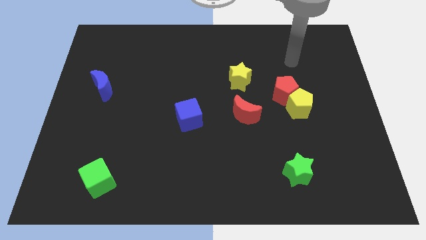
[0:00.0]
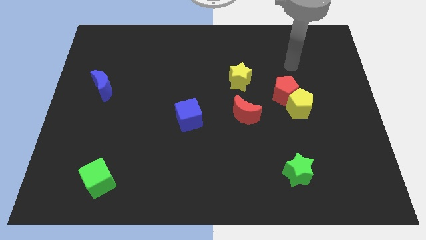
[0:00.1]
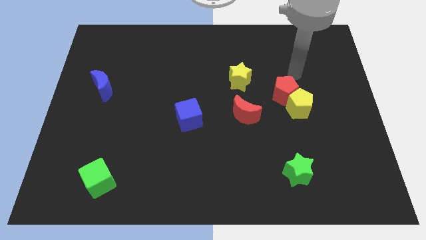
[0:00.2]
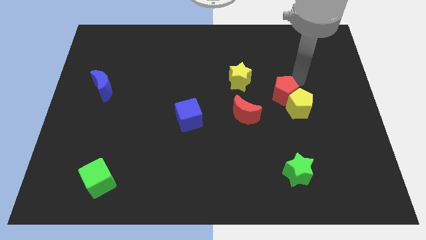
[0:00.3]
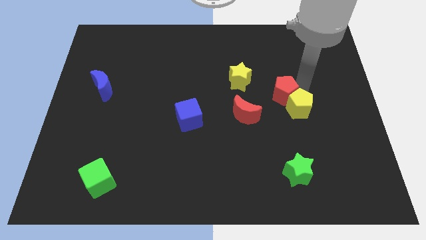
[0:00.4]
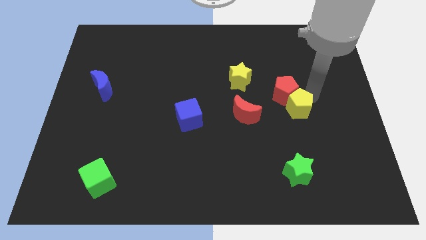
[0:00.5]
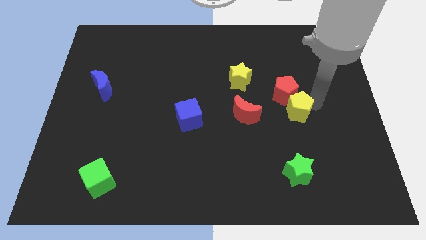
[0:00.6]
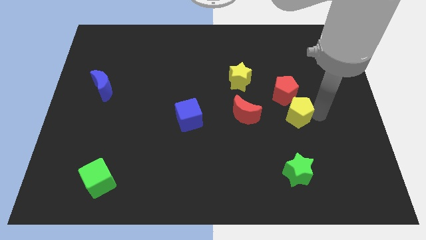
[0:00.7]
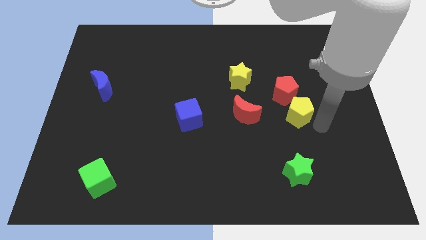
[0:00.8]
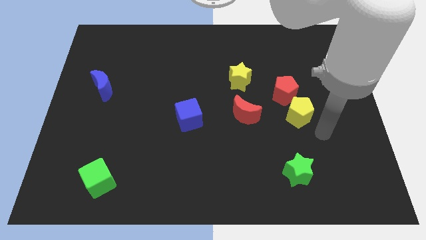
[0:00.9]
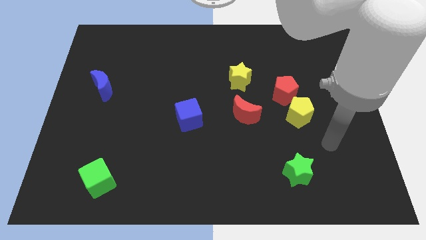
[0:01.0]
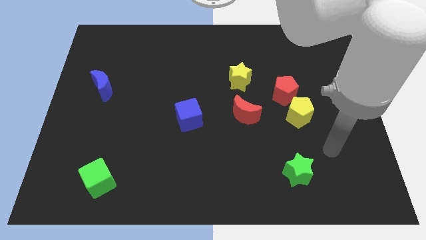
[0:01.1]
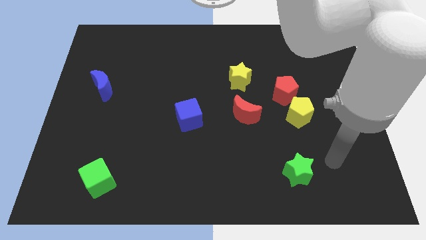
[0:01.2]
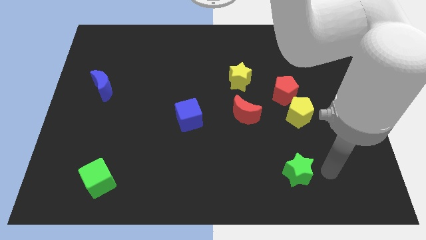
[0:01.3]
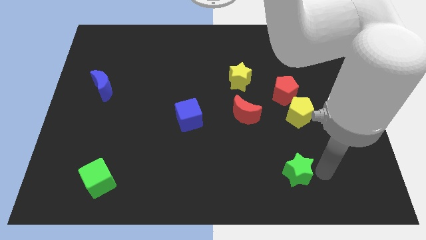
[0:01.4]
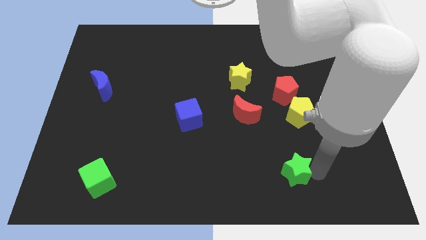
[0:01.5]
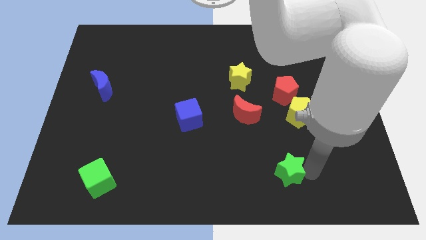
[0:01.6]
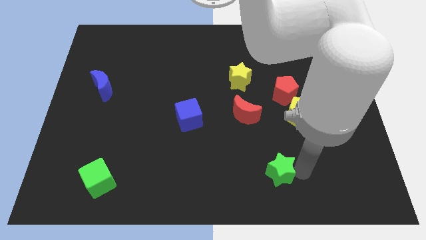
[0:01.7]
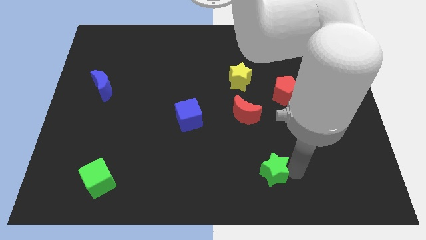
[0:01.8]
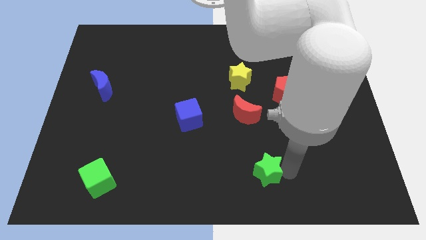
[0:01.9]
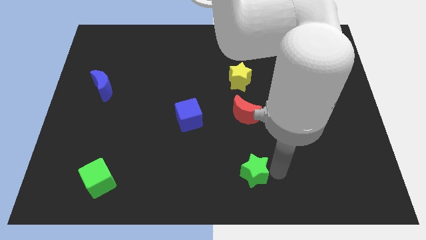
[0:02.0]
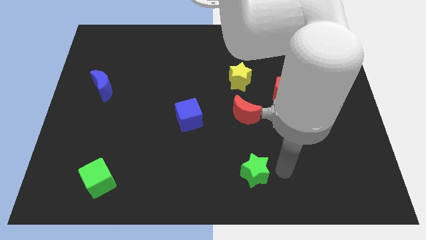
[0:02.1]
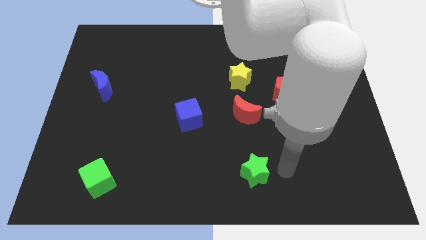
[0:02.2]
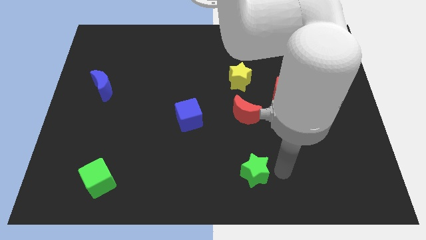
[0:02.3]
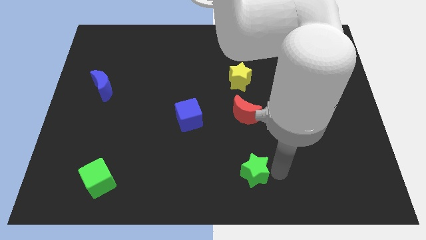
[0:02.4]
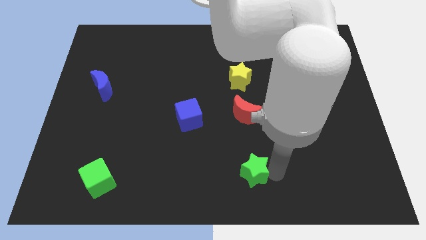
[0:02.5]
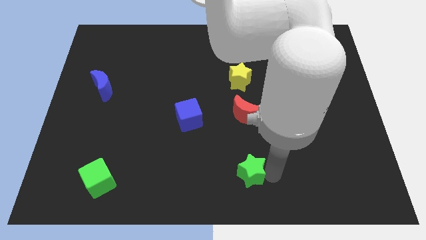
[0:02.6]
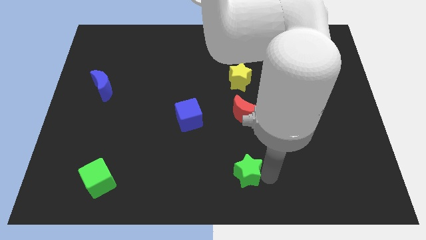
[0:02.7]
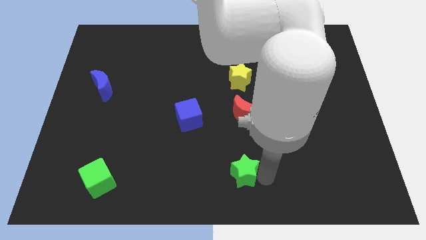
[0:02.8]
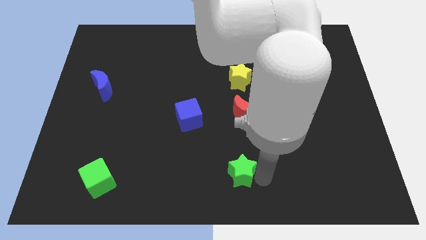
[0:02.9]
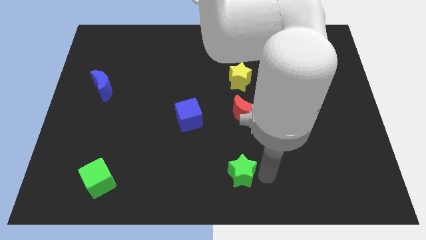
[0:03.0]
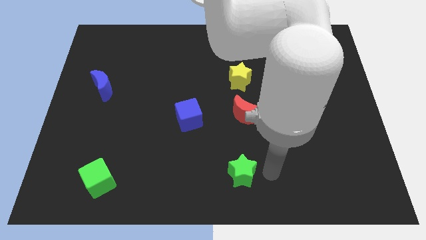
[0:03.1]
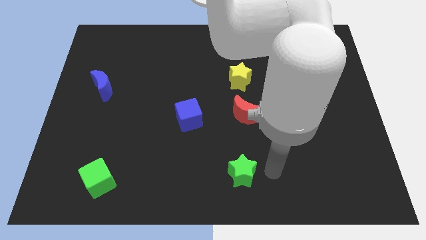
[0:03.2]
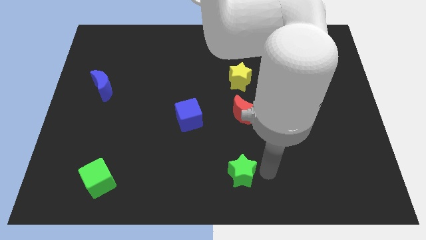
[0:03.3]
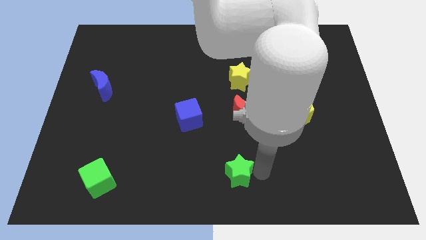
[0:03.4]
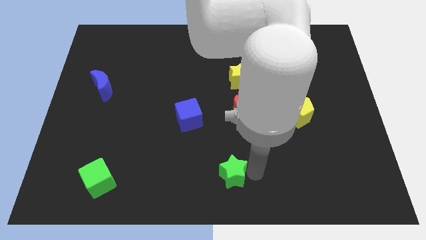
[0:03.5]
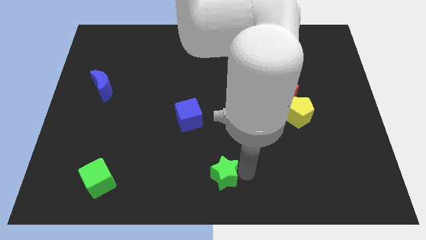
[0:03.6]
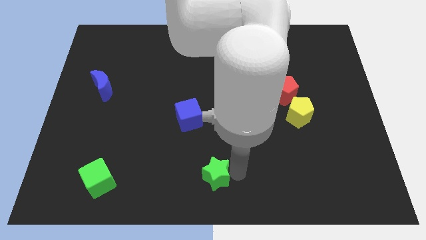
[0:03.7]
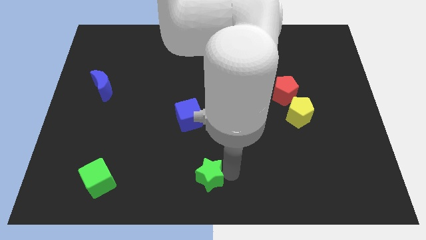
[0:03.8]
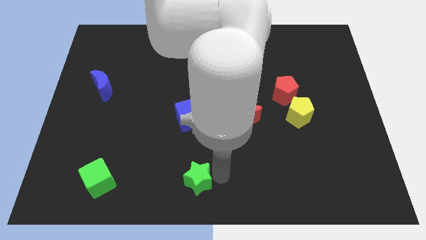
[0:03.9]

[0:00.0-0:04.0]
push the green star left

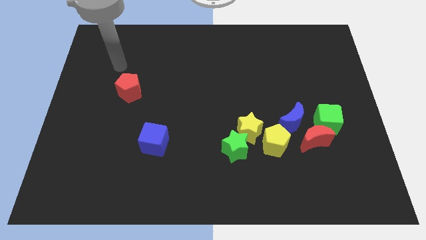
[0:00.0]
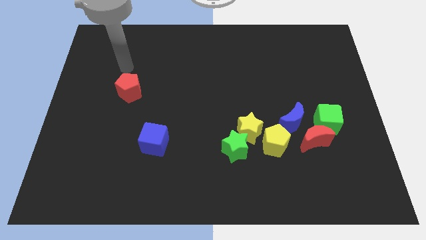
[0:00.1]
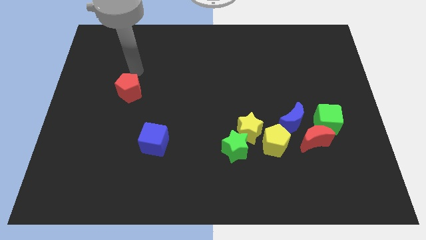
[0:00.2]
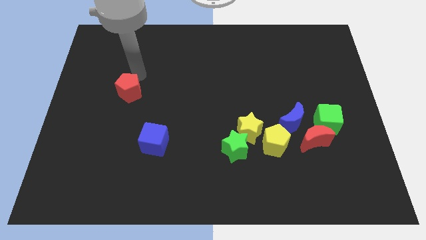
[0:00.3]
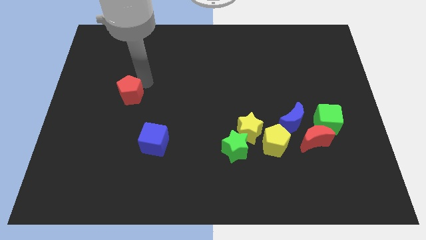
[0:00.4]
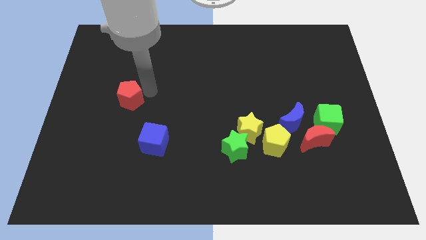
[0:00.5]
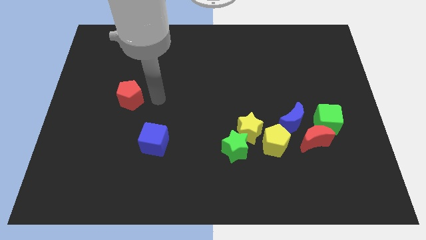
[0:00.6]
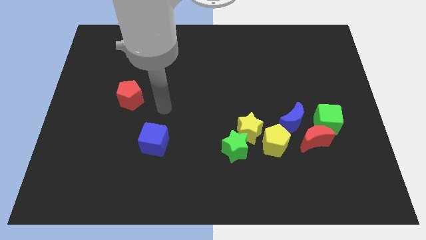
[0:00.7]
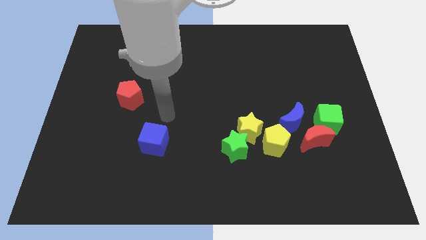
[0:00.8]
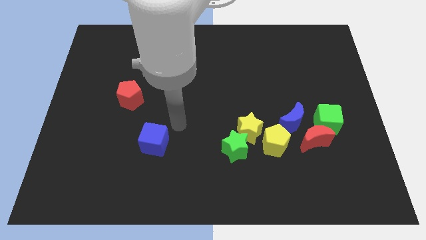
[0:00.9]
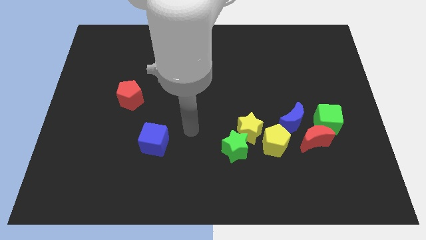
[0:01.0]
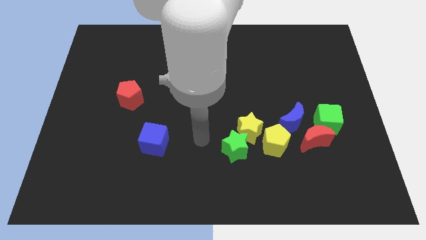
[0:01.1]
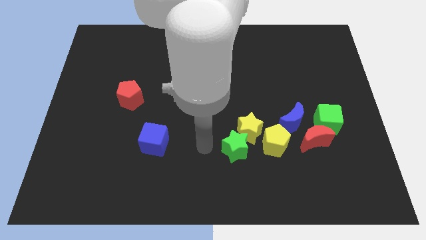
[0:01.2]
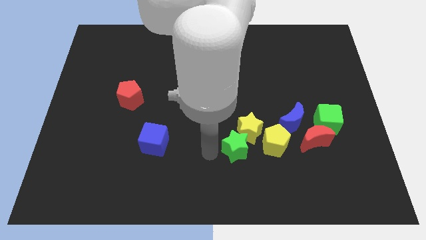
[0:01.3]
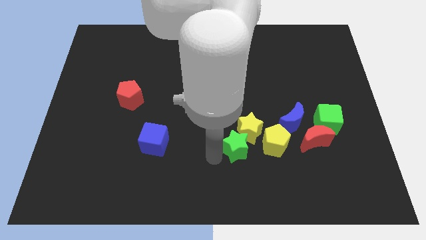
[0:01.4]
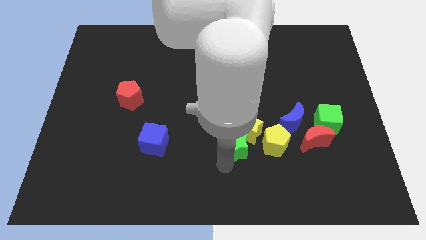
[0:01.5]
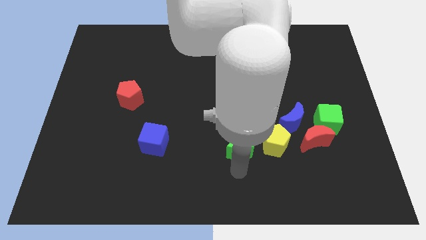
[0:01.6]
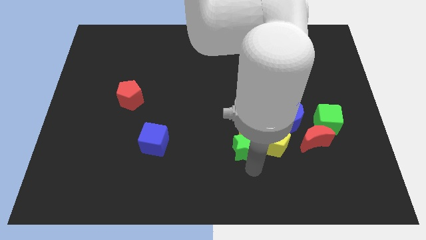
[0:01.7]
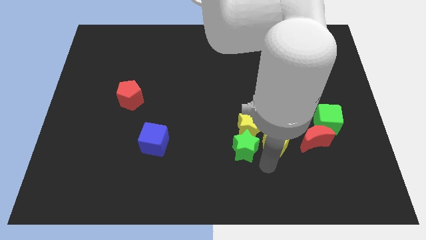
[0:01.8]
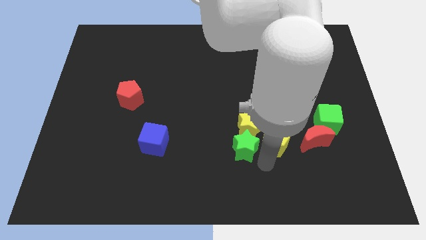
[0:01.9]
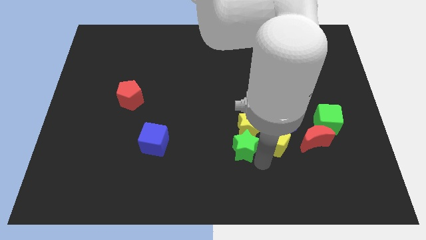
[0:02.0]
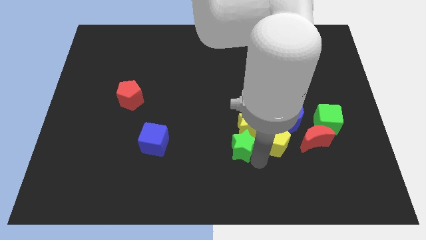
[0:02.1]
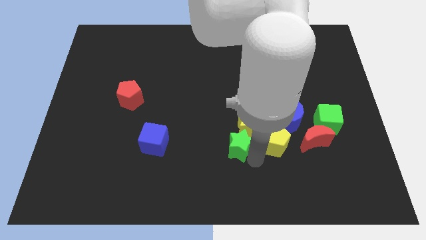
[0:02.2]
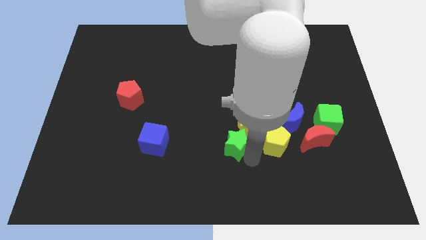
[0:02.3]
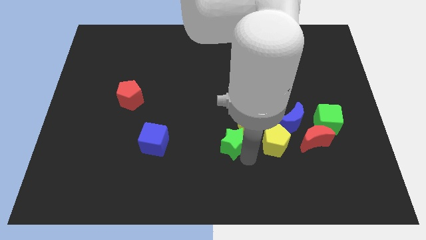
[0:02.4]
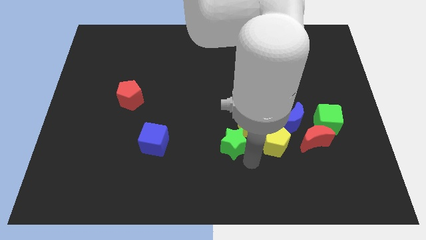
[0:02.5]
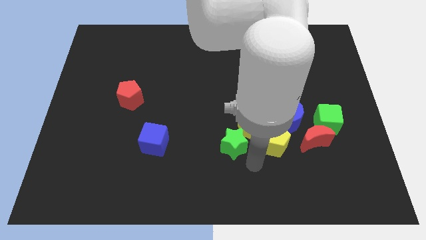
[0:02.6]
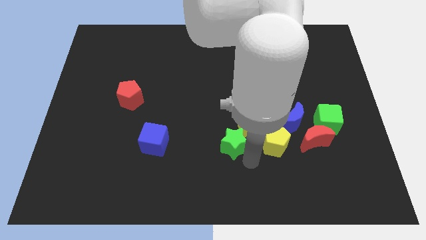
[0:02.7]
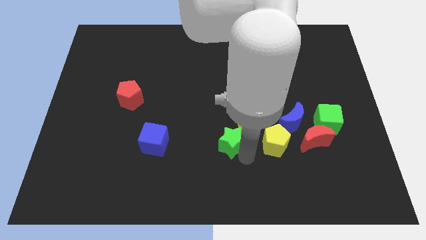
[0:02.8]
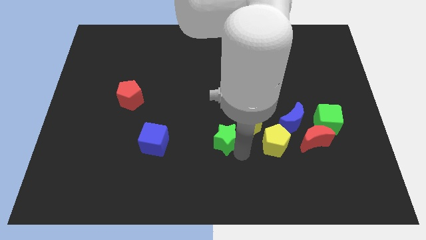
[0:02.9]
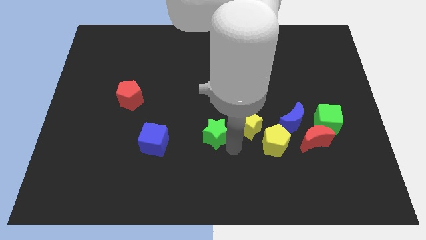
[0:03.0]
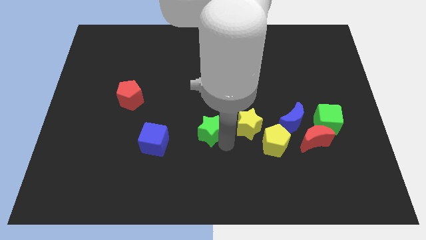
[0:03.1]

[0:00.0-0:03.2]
slide the green star upwards and to the left diagonally a bit

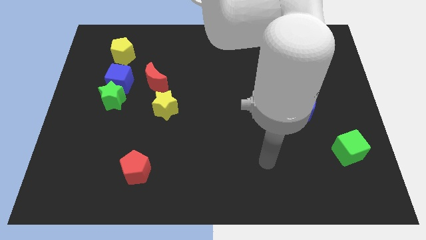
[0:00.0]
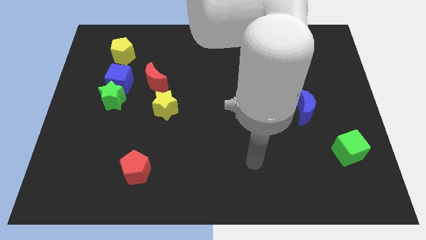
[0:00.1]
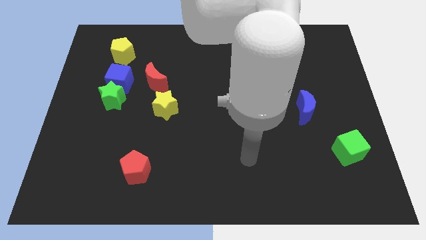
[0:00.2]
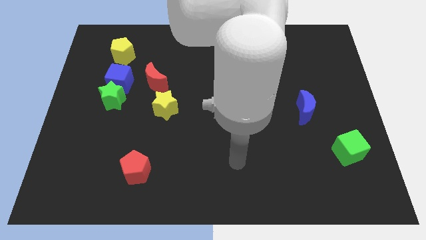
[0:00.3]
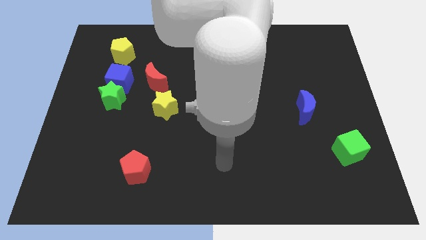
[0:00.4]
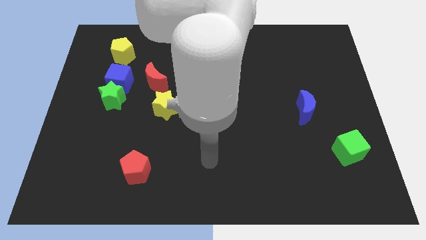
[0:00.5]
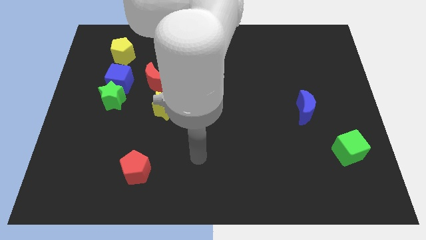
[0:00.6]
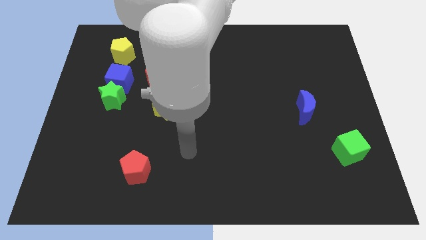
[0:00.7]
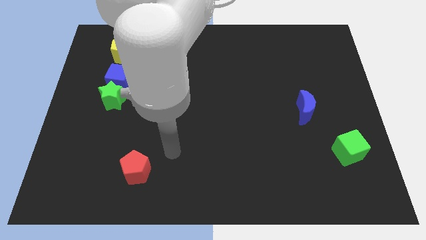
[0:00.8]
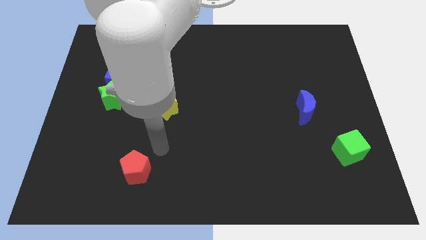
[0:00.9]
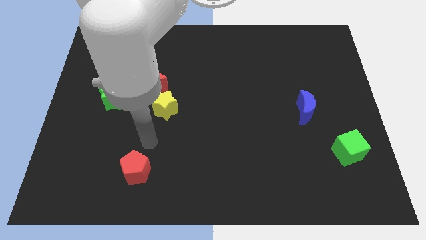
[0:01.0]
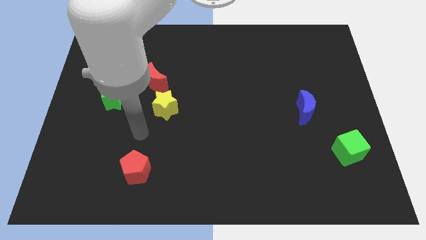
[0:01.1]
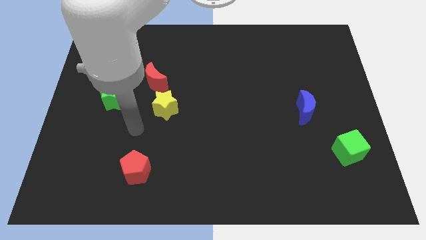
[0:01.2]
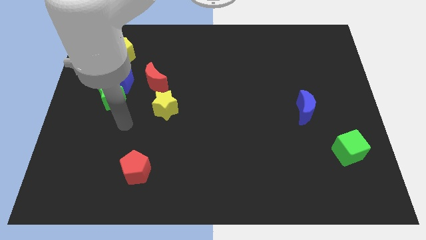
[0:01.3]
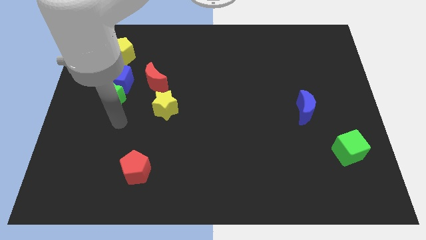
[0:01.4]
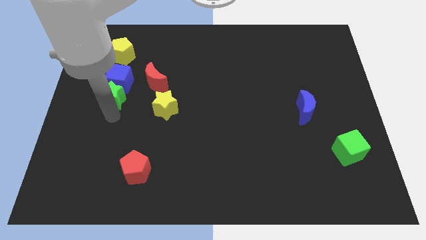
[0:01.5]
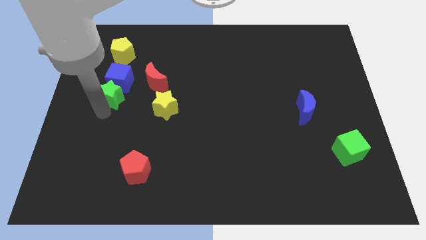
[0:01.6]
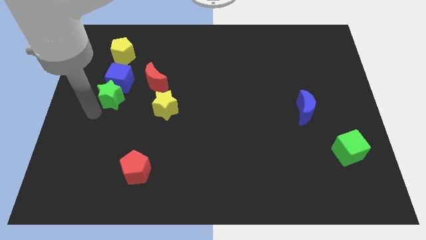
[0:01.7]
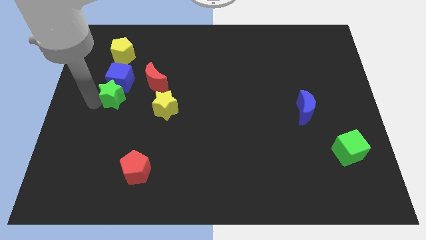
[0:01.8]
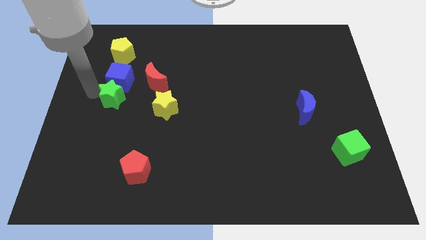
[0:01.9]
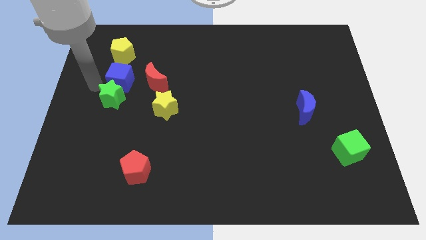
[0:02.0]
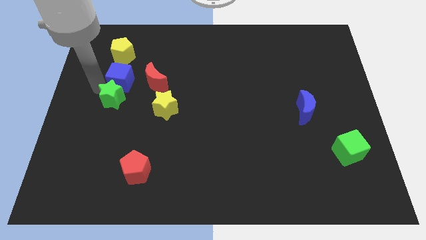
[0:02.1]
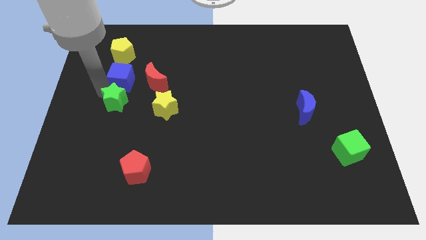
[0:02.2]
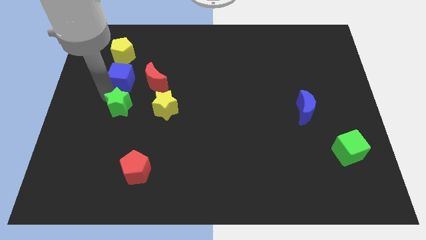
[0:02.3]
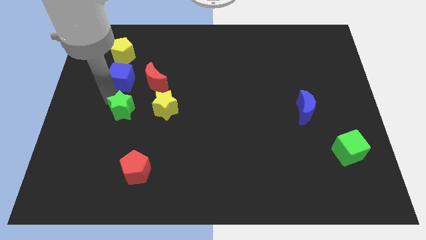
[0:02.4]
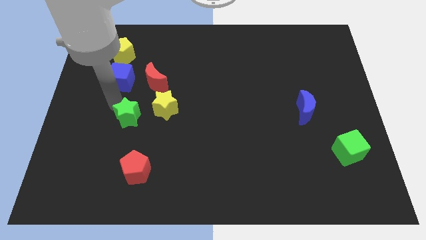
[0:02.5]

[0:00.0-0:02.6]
slightly push the green star diagonally down and right
